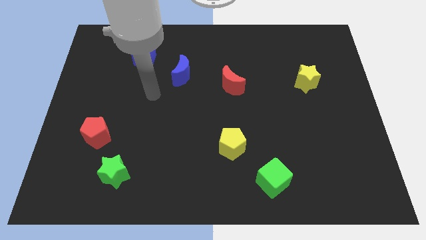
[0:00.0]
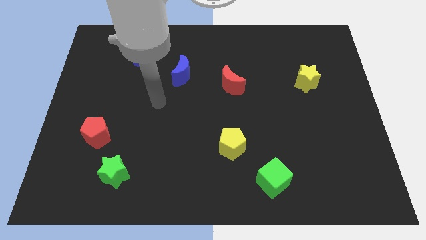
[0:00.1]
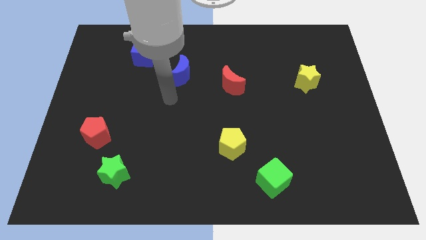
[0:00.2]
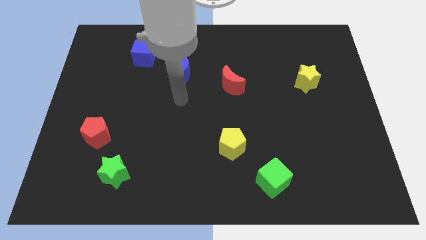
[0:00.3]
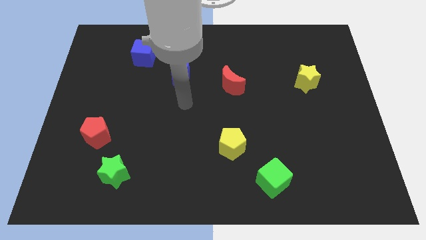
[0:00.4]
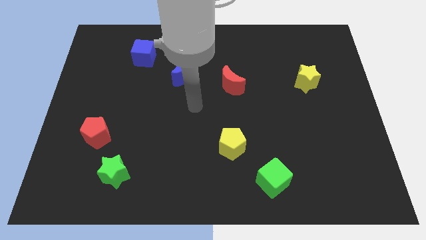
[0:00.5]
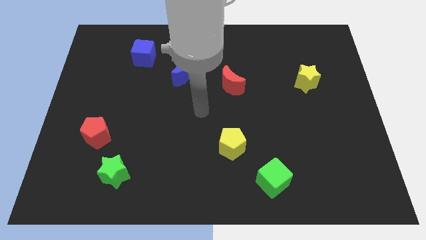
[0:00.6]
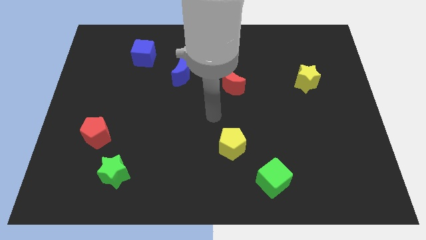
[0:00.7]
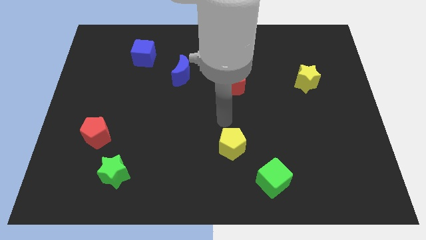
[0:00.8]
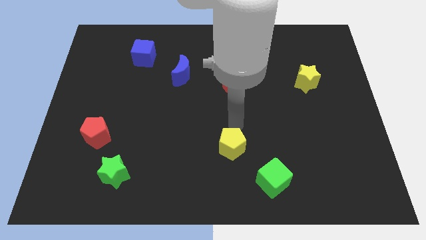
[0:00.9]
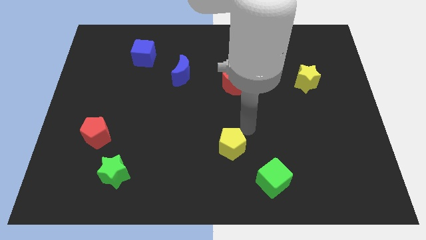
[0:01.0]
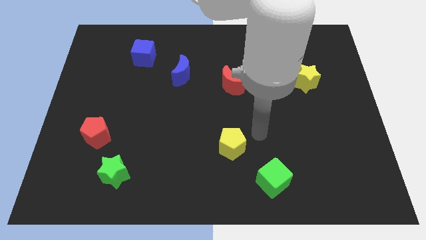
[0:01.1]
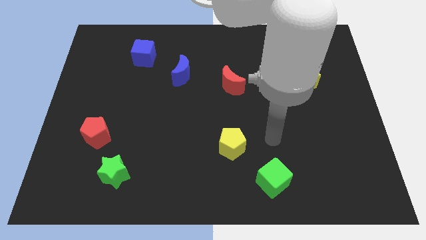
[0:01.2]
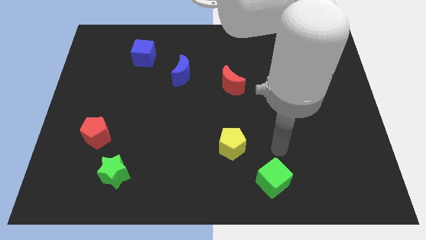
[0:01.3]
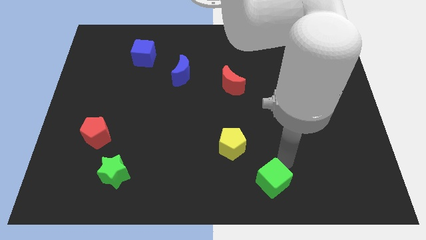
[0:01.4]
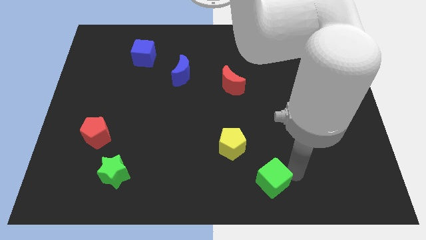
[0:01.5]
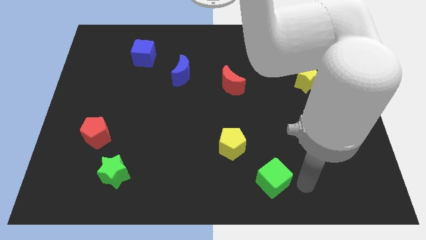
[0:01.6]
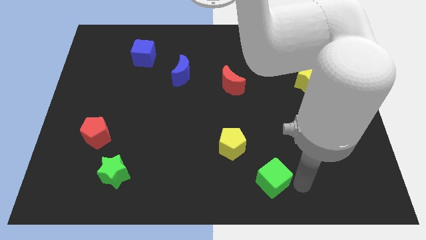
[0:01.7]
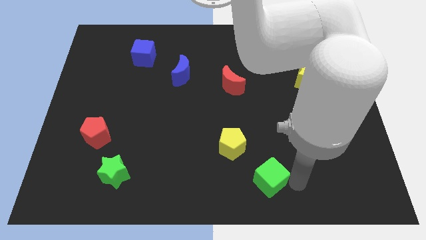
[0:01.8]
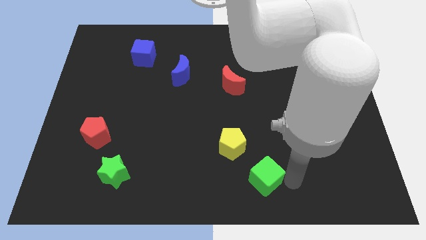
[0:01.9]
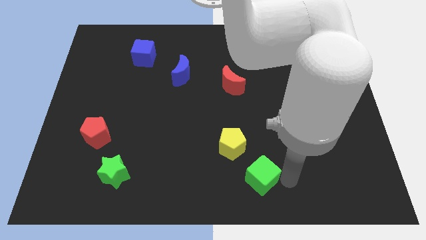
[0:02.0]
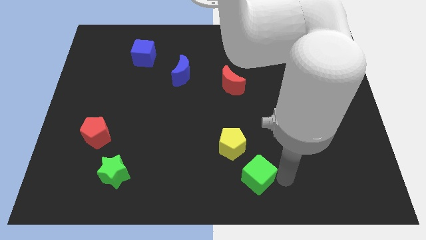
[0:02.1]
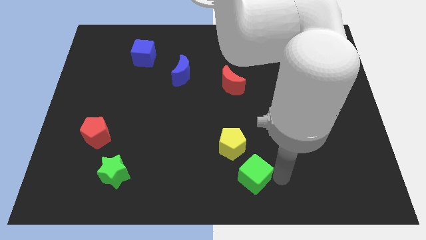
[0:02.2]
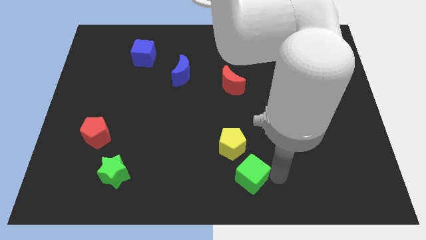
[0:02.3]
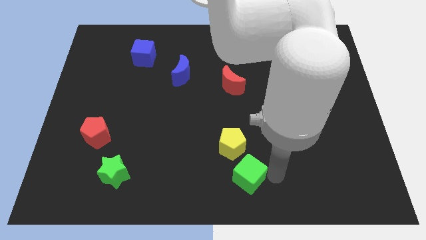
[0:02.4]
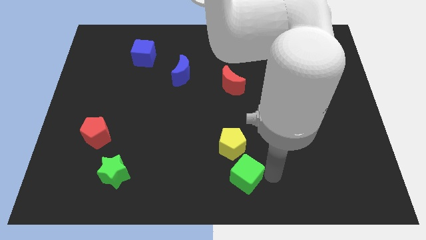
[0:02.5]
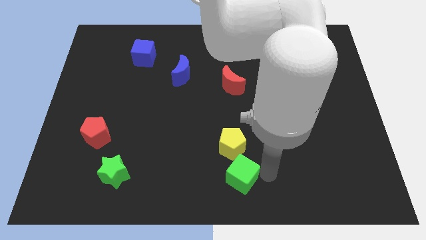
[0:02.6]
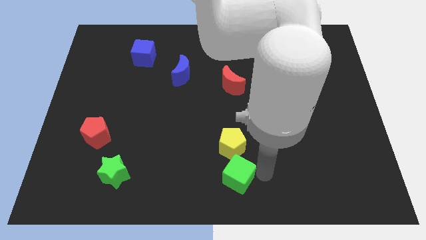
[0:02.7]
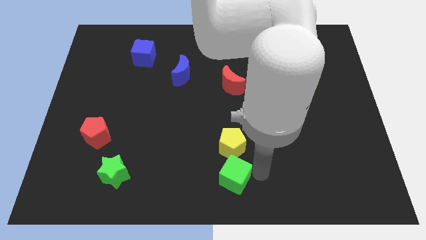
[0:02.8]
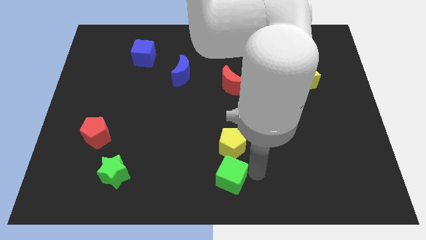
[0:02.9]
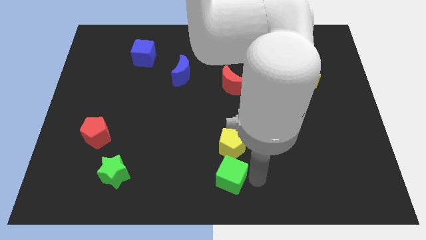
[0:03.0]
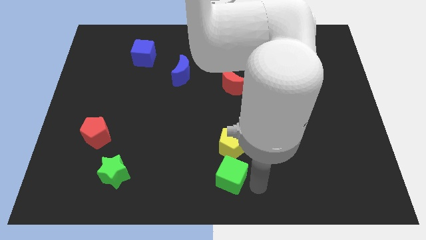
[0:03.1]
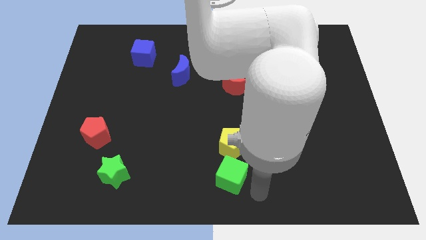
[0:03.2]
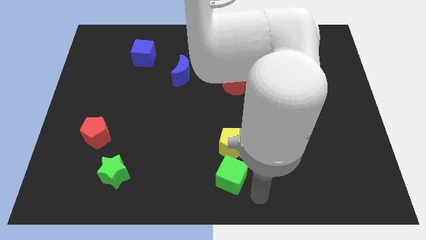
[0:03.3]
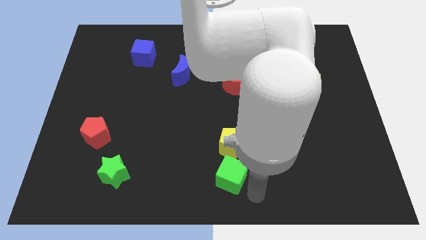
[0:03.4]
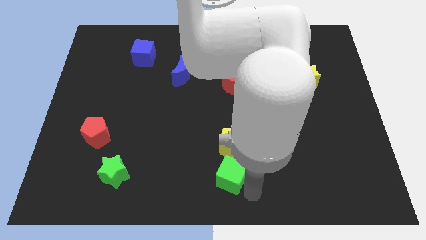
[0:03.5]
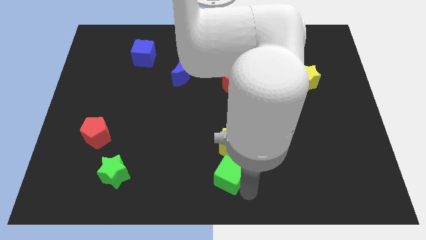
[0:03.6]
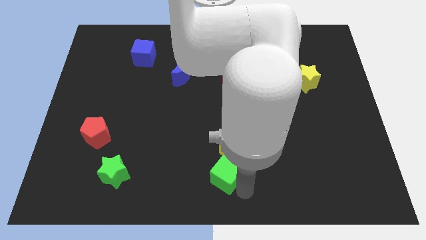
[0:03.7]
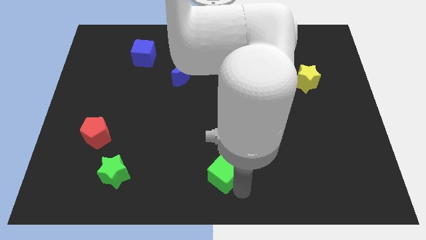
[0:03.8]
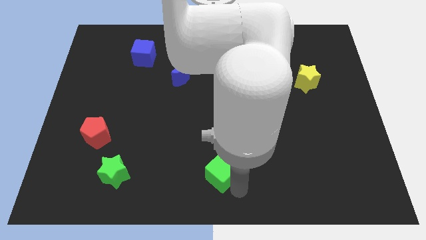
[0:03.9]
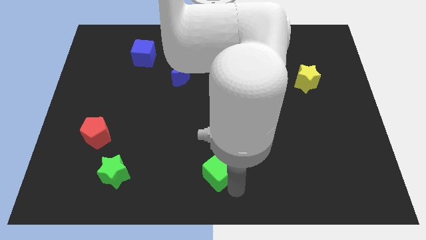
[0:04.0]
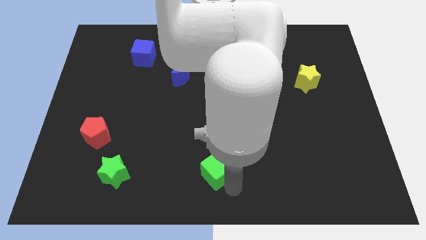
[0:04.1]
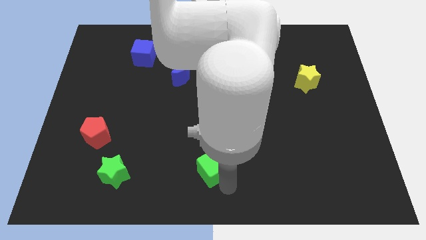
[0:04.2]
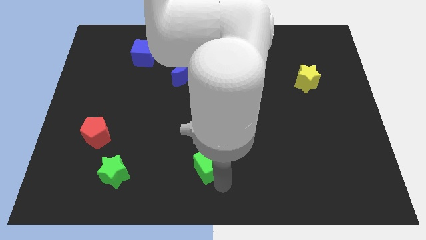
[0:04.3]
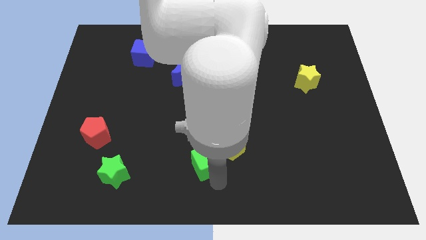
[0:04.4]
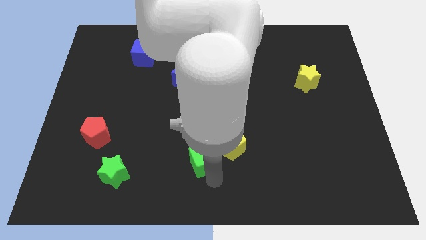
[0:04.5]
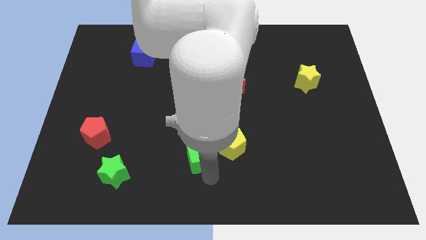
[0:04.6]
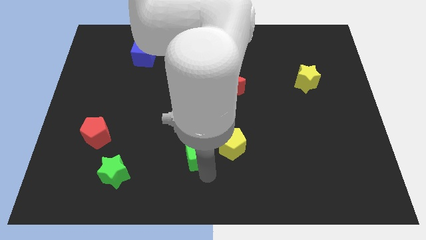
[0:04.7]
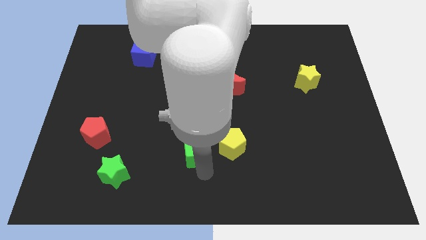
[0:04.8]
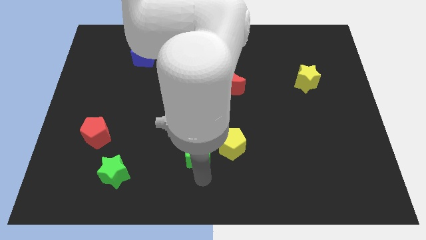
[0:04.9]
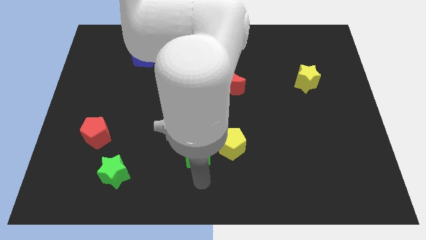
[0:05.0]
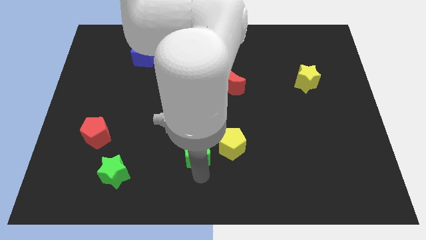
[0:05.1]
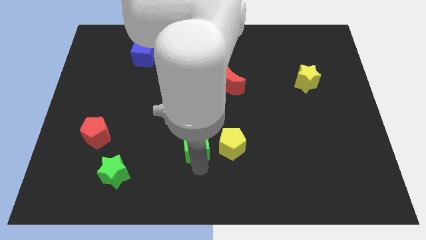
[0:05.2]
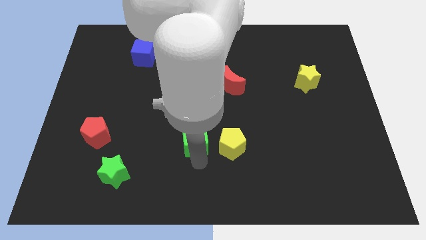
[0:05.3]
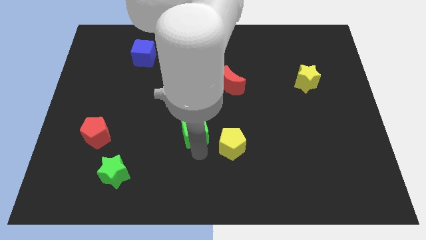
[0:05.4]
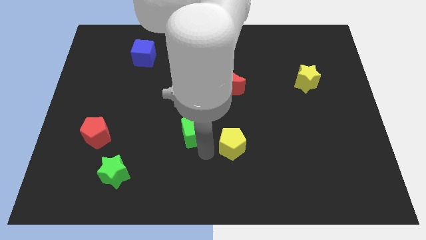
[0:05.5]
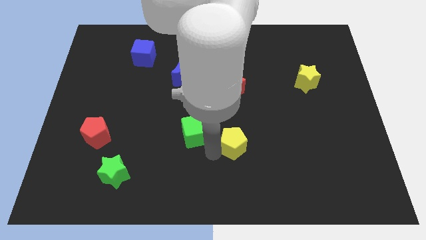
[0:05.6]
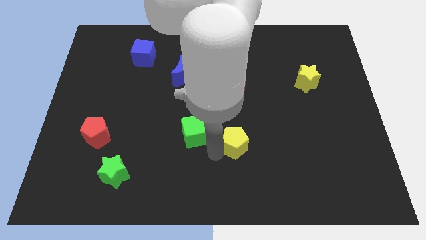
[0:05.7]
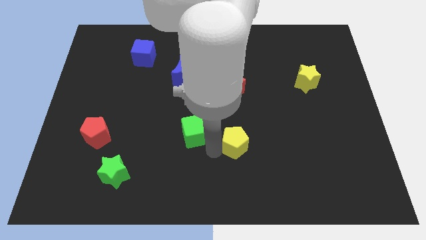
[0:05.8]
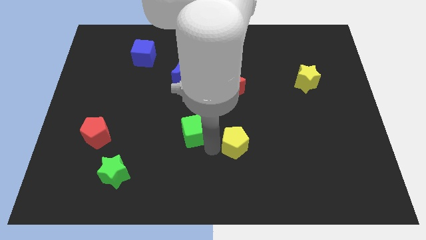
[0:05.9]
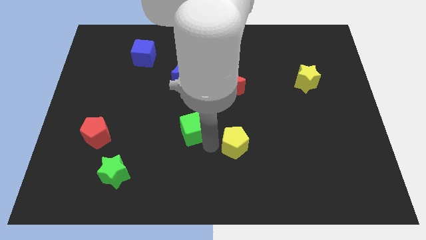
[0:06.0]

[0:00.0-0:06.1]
push the green cube upwards and to the left diagonally

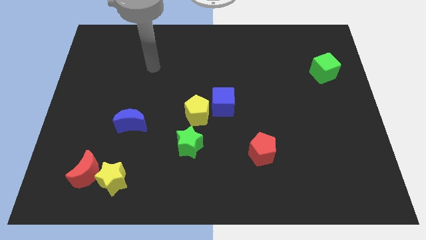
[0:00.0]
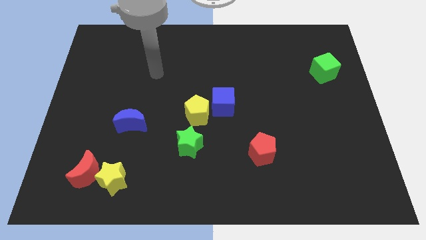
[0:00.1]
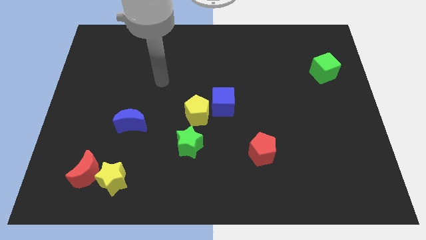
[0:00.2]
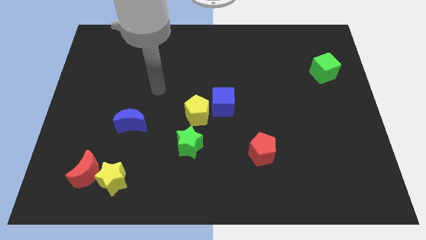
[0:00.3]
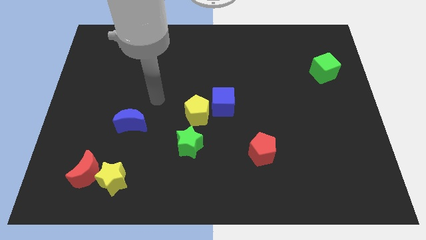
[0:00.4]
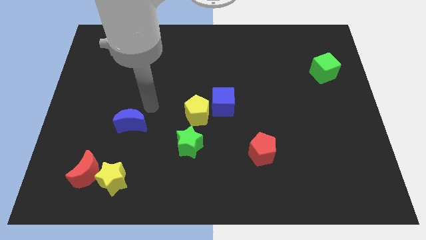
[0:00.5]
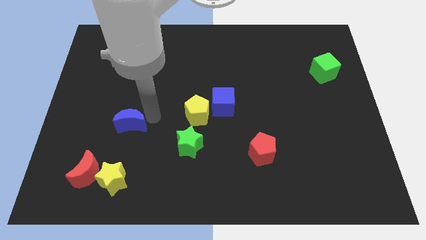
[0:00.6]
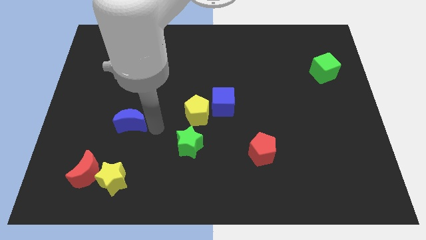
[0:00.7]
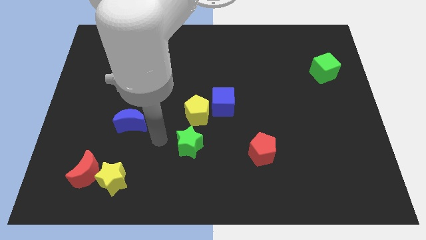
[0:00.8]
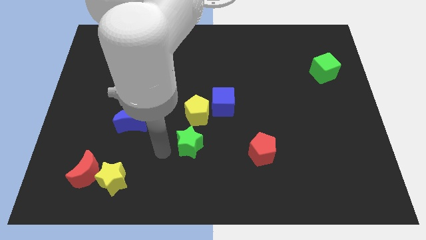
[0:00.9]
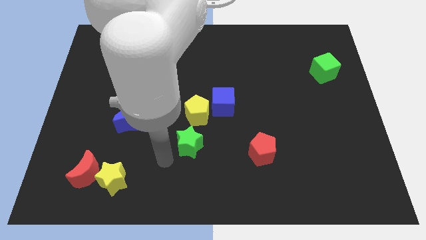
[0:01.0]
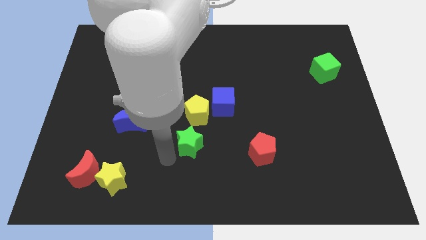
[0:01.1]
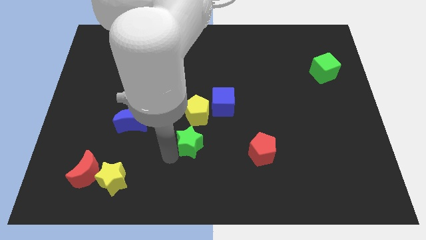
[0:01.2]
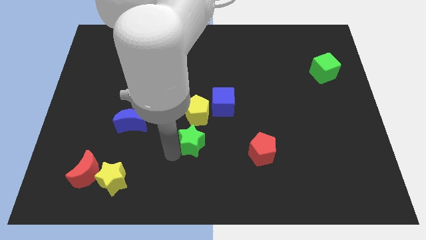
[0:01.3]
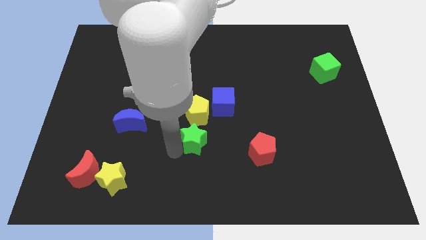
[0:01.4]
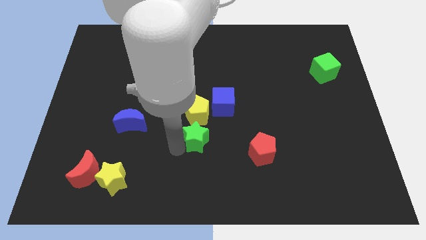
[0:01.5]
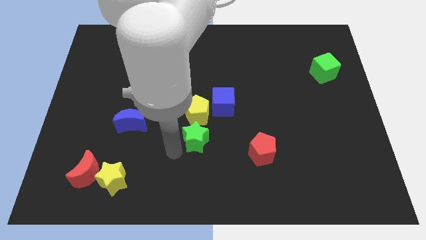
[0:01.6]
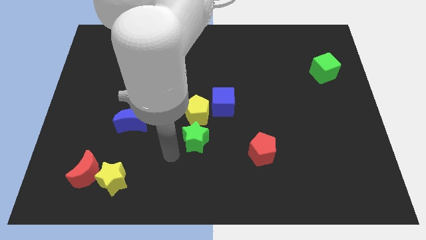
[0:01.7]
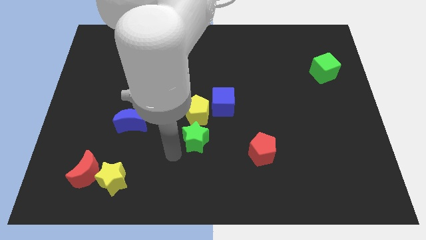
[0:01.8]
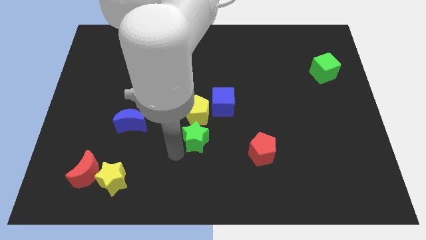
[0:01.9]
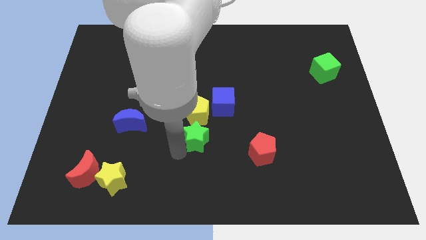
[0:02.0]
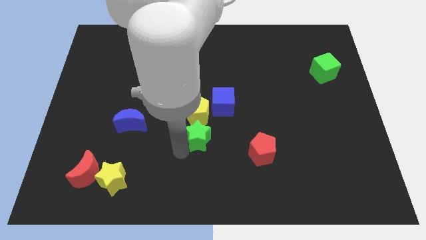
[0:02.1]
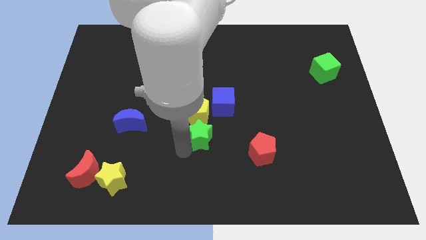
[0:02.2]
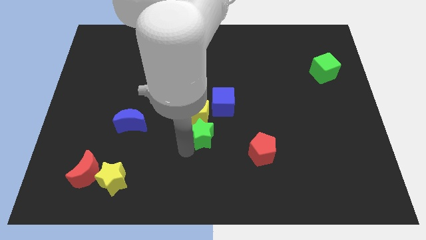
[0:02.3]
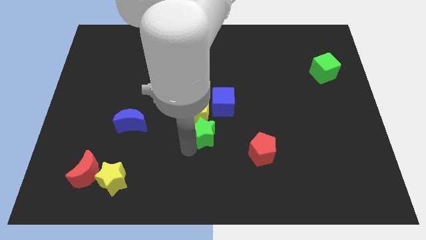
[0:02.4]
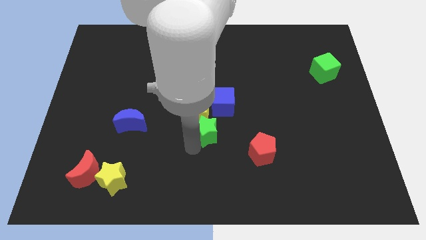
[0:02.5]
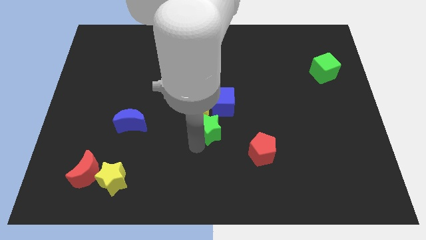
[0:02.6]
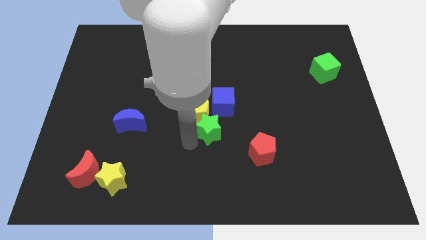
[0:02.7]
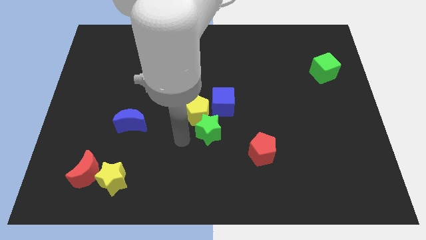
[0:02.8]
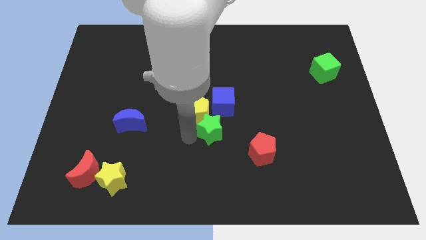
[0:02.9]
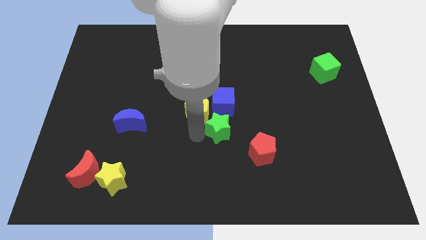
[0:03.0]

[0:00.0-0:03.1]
slightly slide the green star upwards and then to the right
